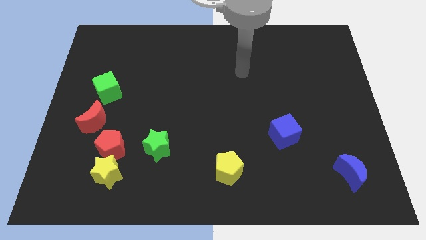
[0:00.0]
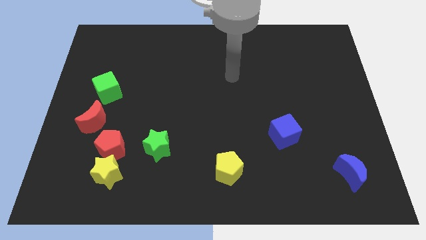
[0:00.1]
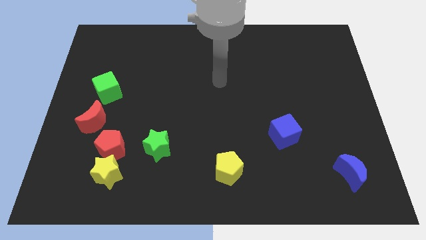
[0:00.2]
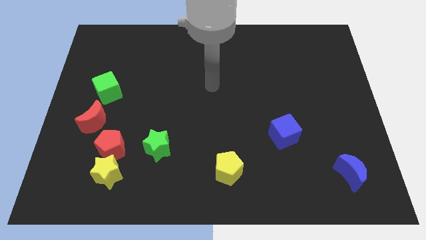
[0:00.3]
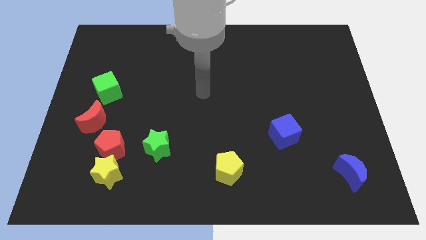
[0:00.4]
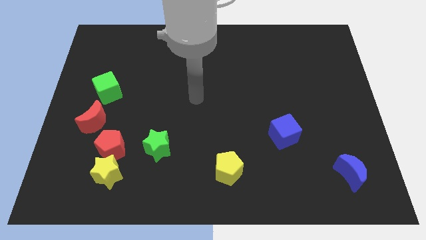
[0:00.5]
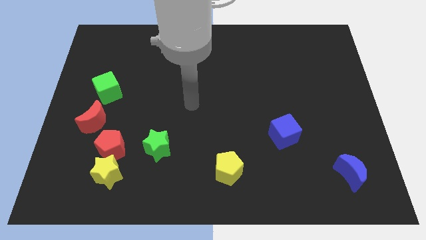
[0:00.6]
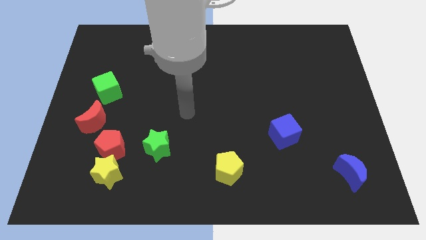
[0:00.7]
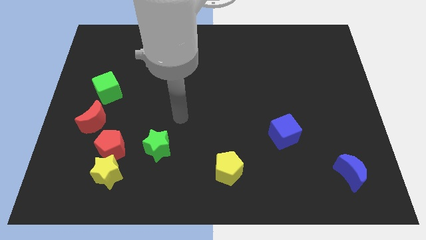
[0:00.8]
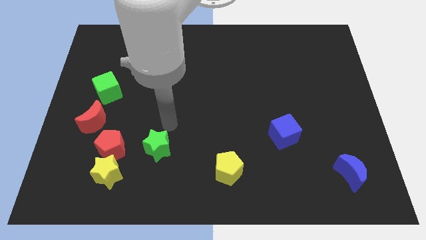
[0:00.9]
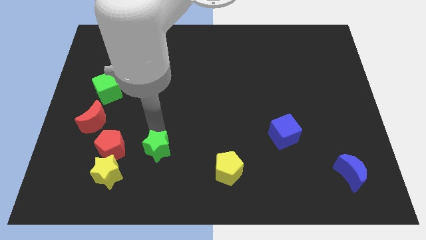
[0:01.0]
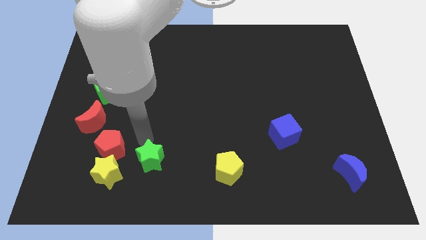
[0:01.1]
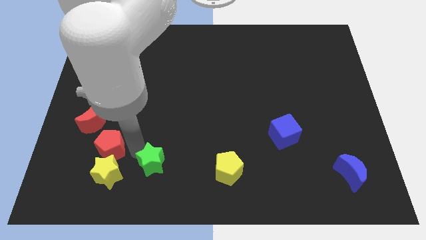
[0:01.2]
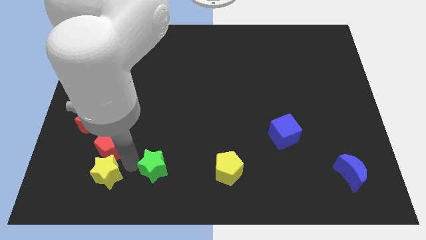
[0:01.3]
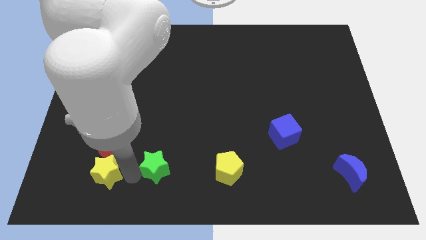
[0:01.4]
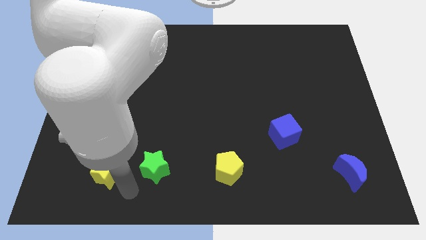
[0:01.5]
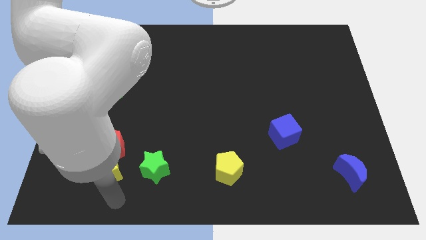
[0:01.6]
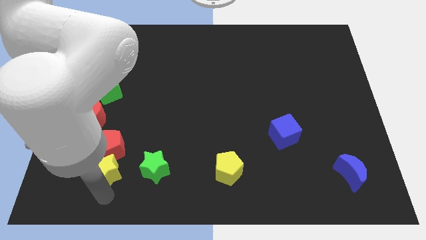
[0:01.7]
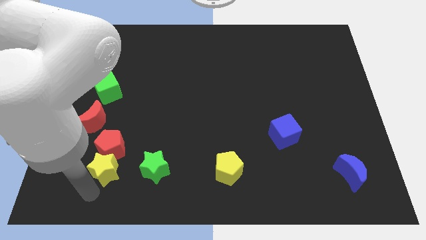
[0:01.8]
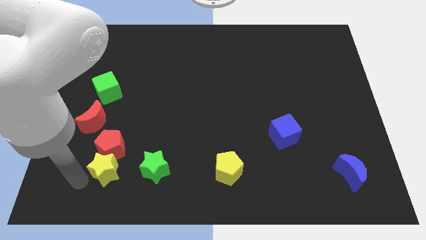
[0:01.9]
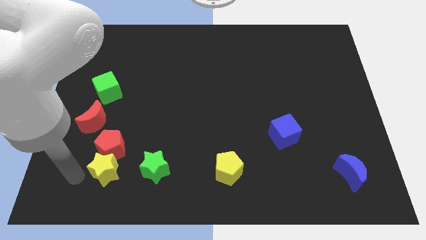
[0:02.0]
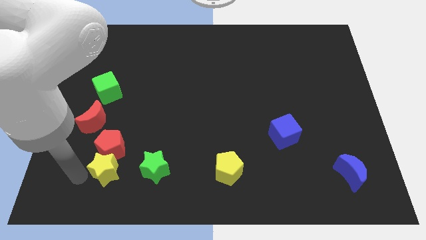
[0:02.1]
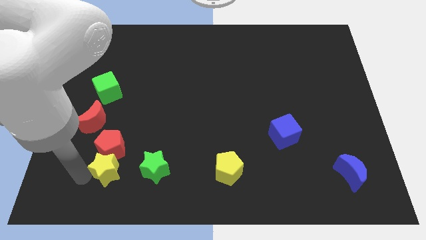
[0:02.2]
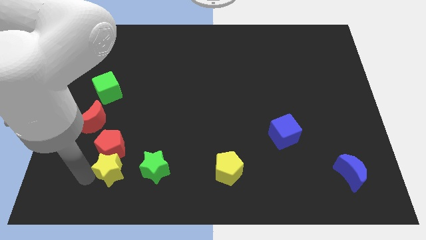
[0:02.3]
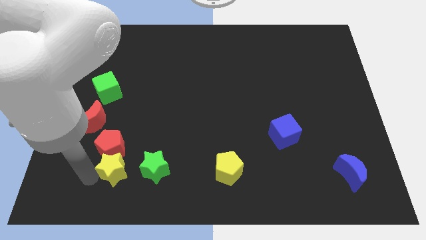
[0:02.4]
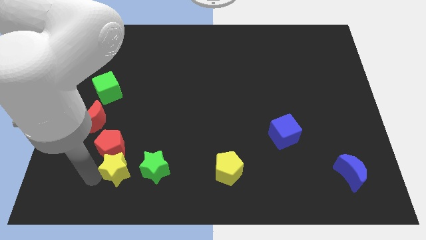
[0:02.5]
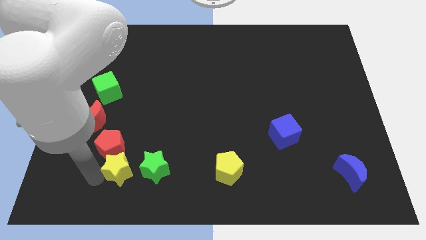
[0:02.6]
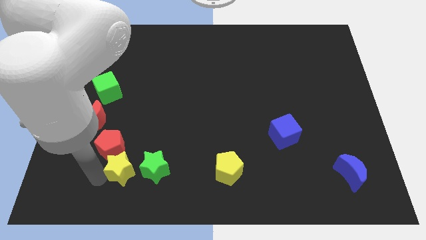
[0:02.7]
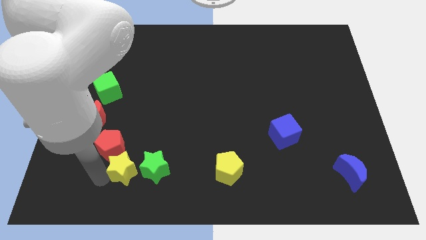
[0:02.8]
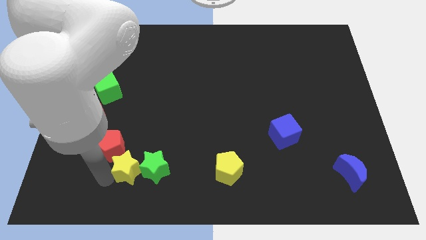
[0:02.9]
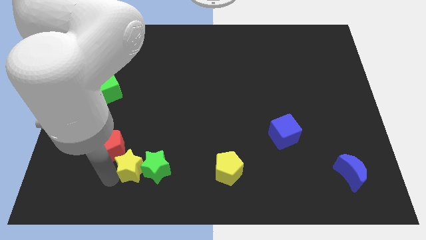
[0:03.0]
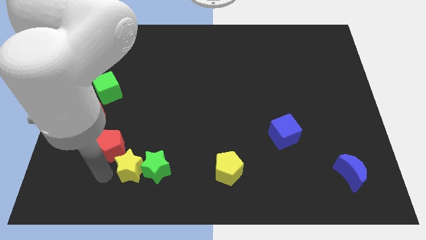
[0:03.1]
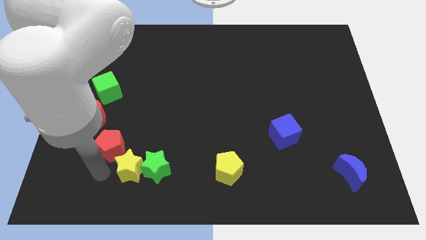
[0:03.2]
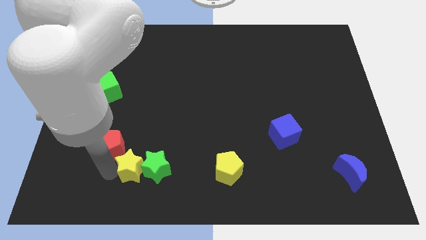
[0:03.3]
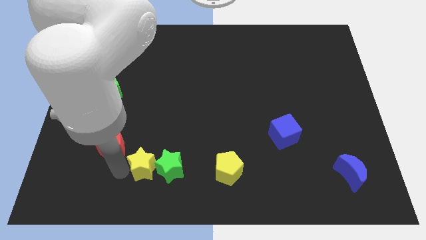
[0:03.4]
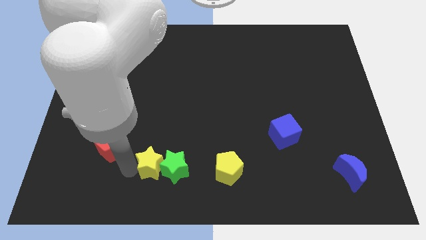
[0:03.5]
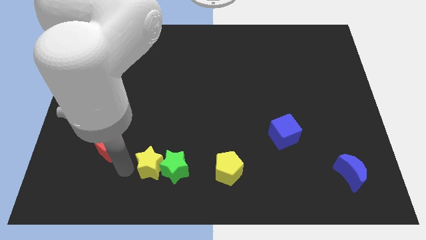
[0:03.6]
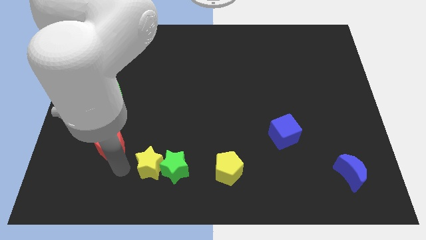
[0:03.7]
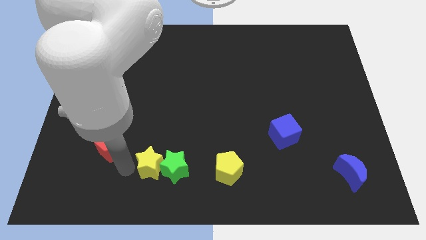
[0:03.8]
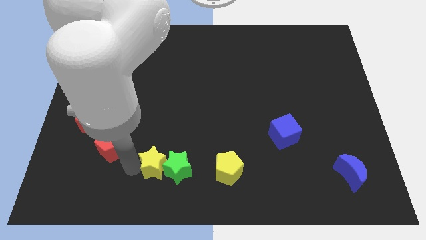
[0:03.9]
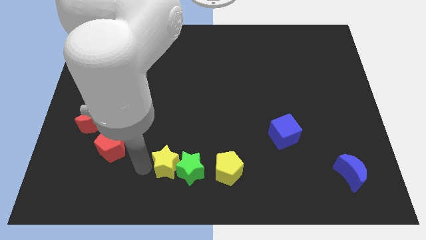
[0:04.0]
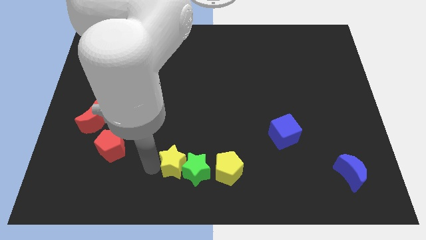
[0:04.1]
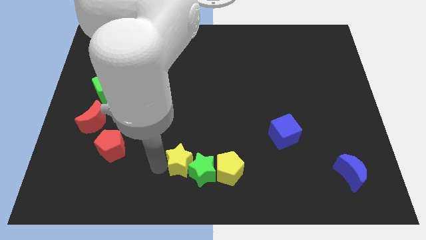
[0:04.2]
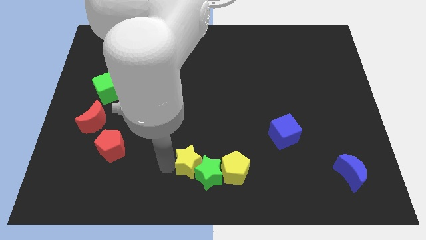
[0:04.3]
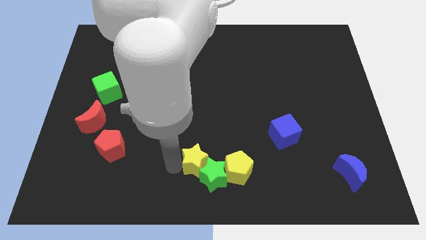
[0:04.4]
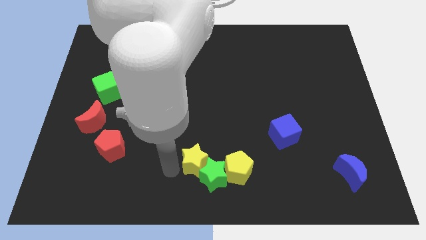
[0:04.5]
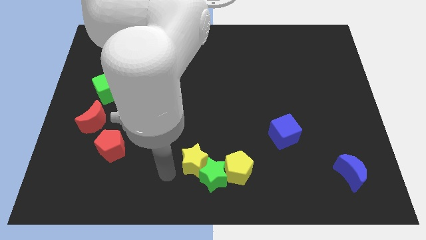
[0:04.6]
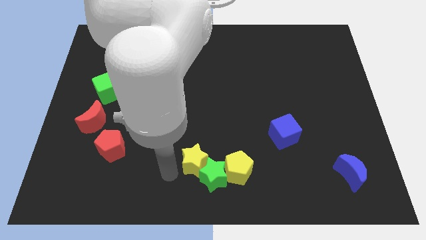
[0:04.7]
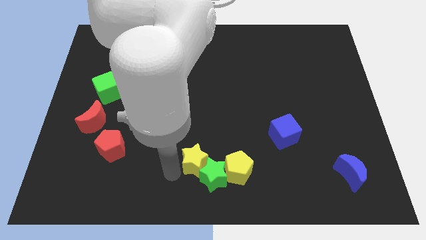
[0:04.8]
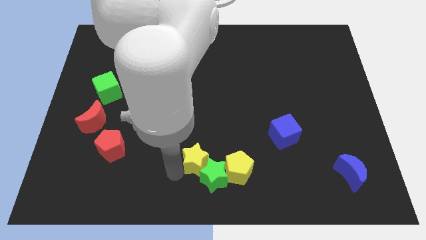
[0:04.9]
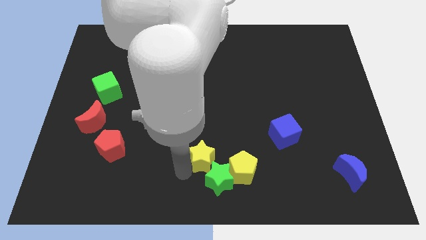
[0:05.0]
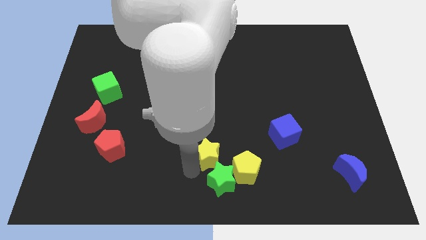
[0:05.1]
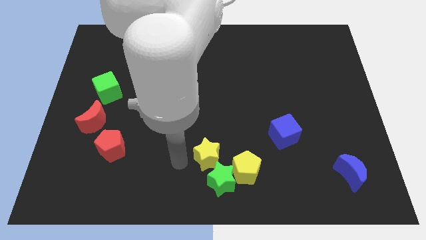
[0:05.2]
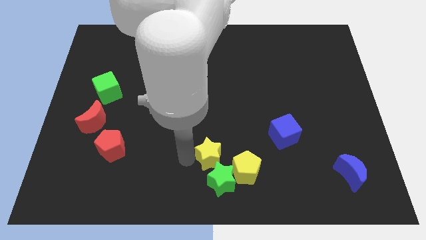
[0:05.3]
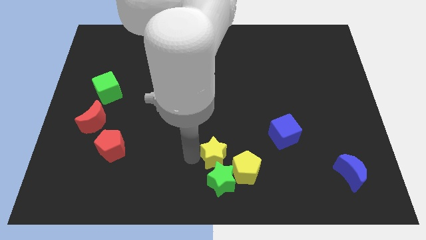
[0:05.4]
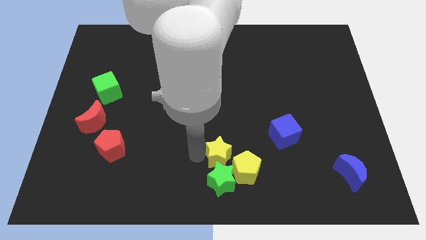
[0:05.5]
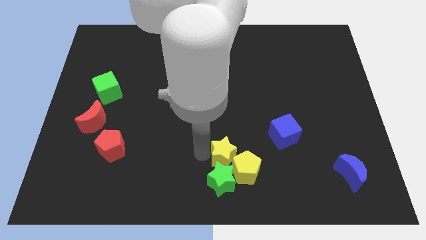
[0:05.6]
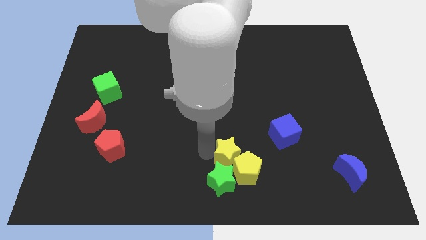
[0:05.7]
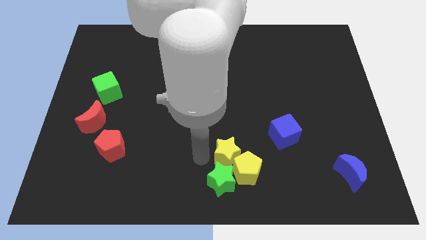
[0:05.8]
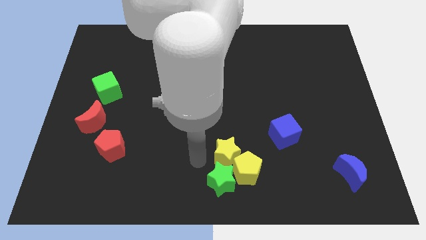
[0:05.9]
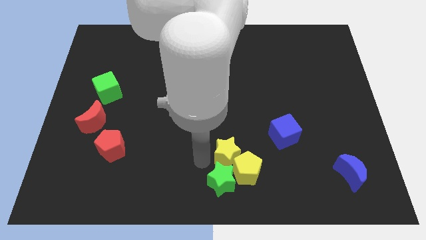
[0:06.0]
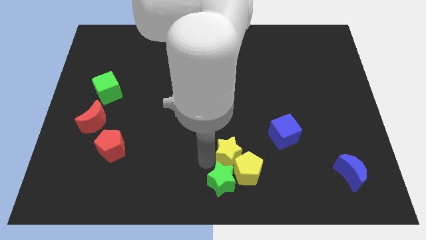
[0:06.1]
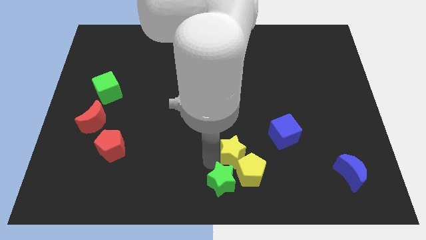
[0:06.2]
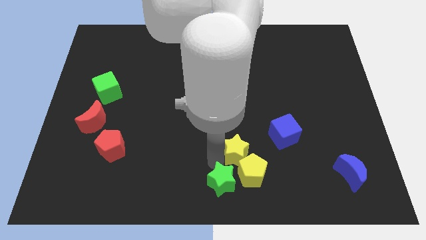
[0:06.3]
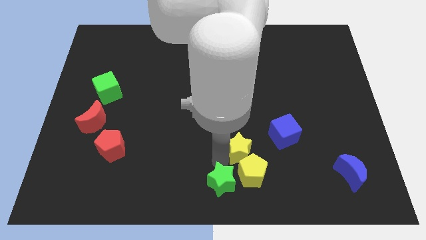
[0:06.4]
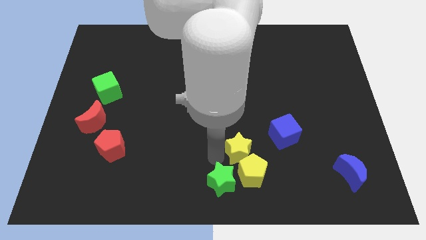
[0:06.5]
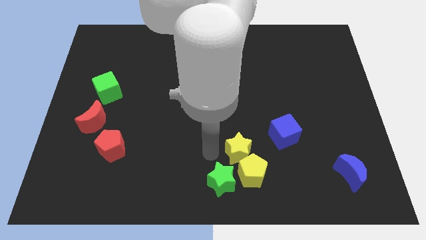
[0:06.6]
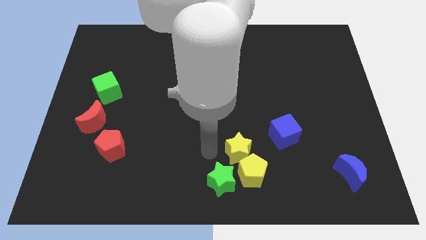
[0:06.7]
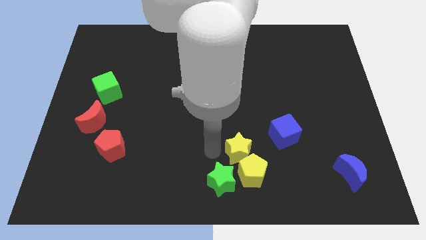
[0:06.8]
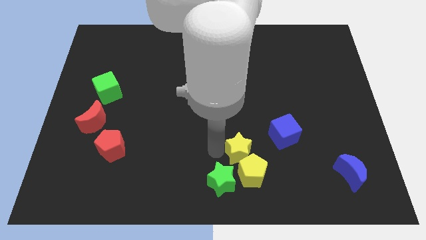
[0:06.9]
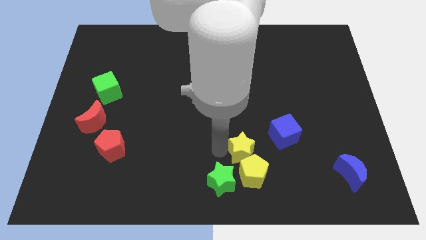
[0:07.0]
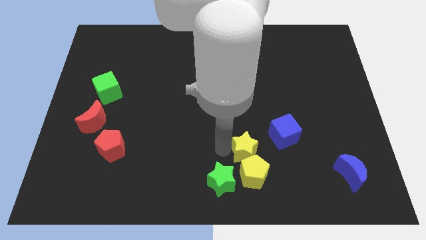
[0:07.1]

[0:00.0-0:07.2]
push the yellow star diagonally up and to the right of the yellow pentagon
